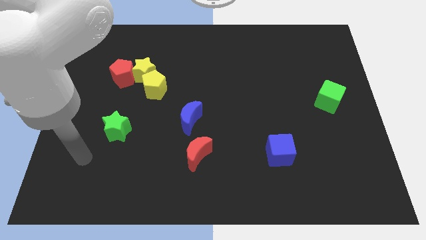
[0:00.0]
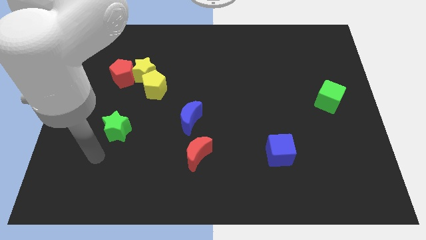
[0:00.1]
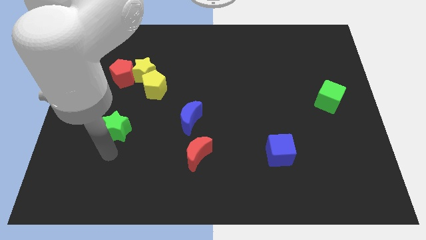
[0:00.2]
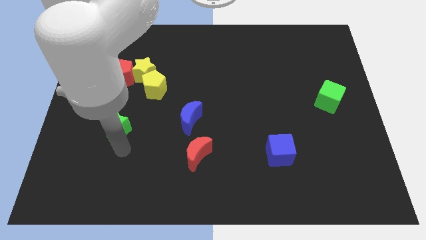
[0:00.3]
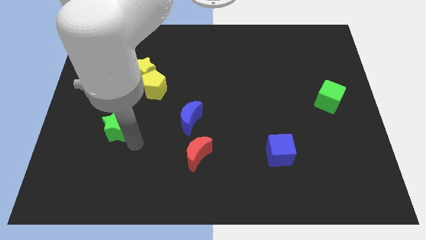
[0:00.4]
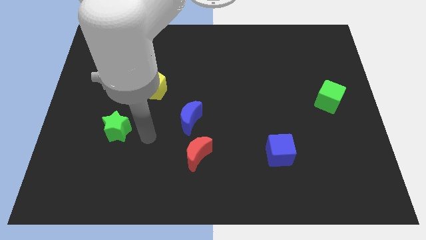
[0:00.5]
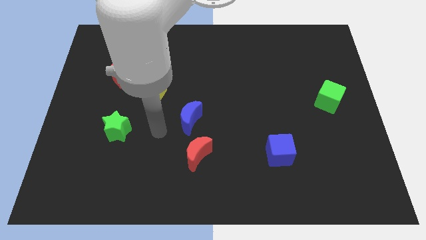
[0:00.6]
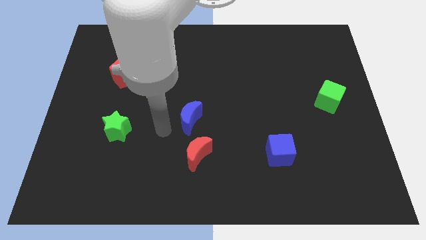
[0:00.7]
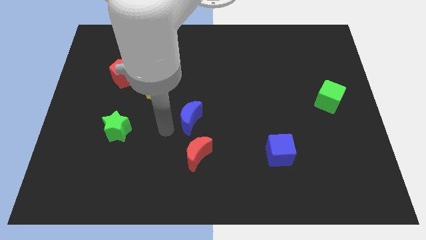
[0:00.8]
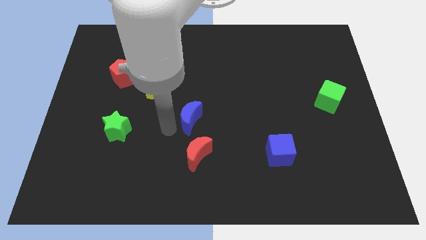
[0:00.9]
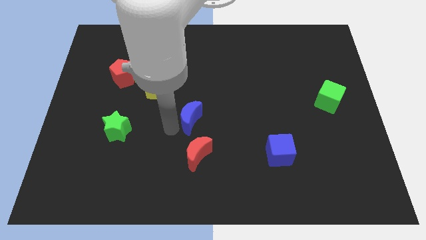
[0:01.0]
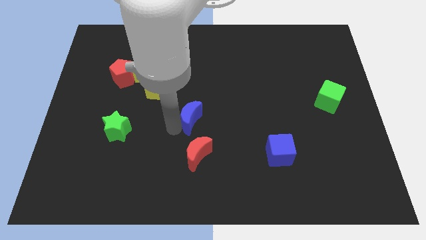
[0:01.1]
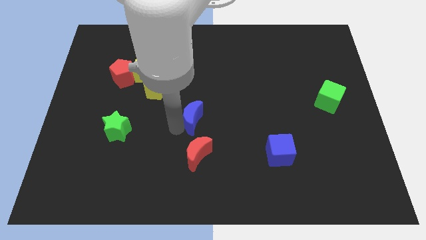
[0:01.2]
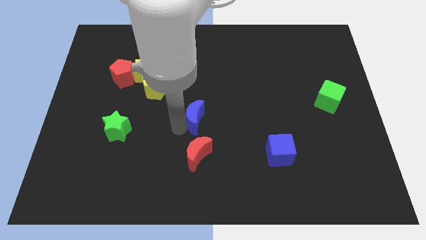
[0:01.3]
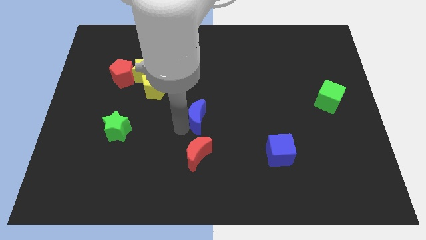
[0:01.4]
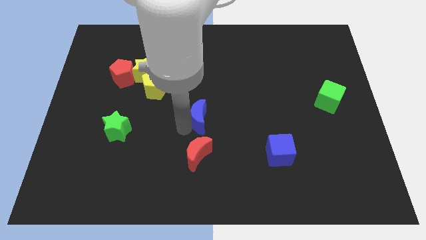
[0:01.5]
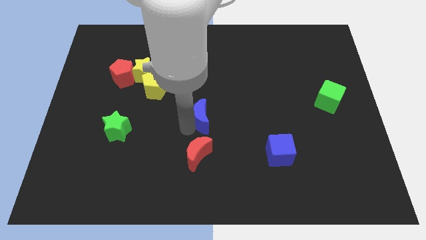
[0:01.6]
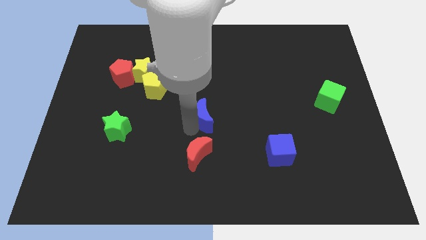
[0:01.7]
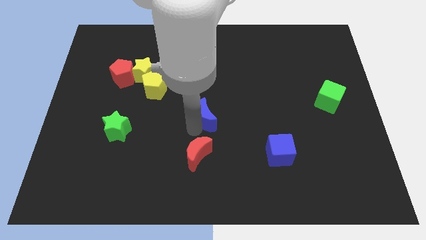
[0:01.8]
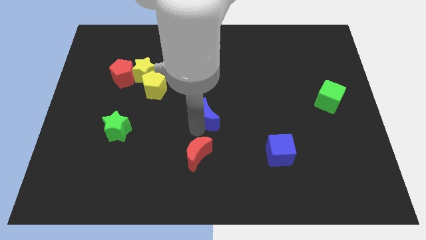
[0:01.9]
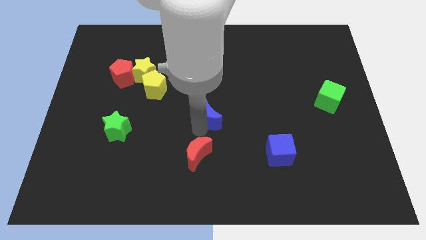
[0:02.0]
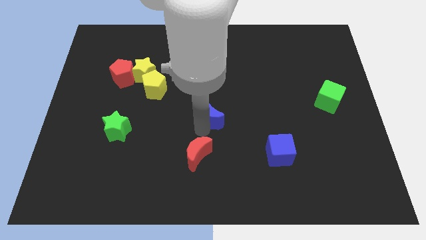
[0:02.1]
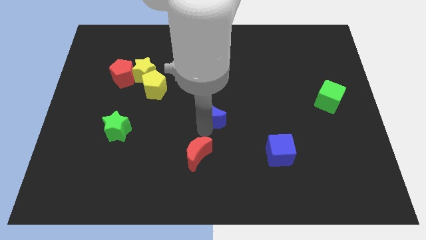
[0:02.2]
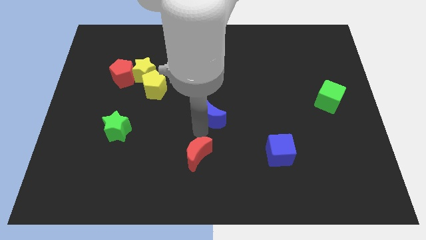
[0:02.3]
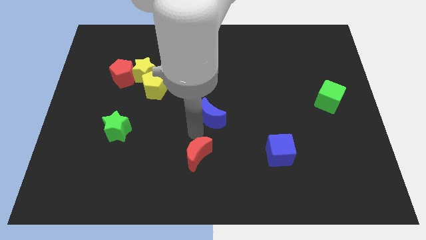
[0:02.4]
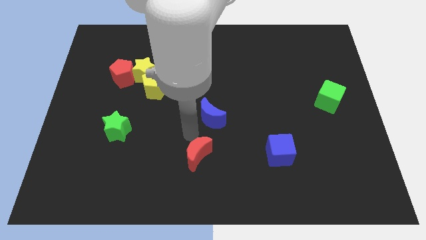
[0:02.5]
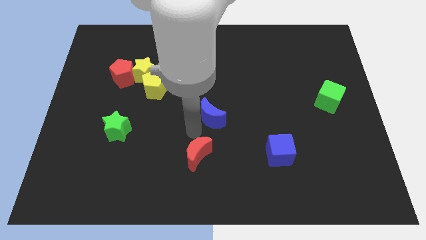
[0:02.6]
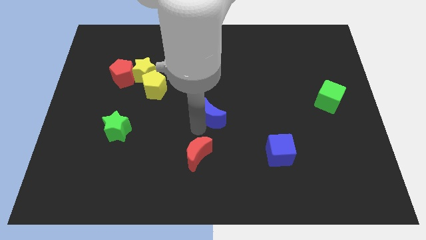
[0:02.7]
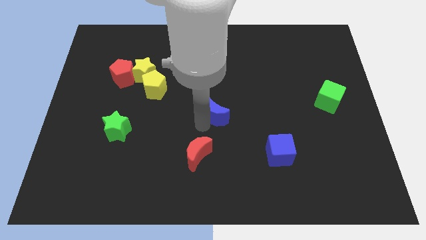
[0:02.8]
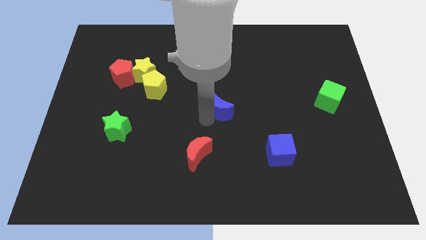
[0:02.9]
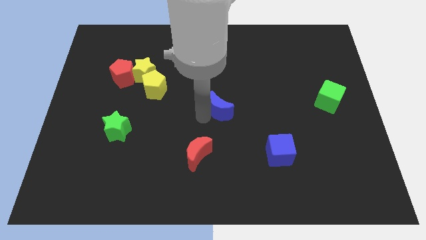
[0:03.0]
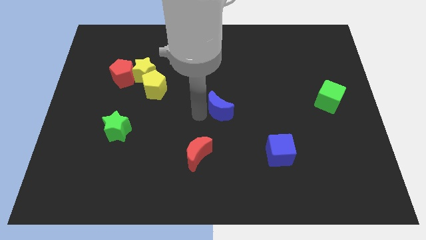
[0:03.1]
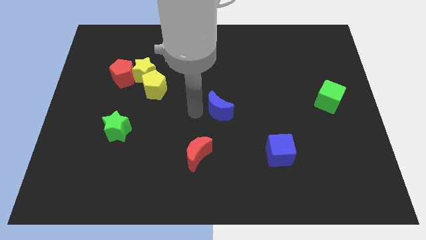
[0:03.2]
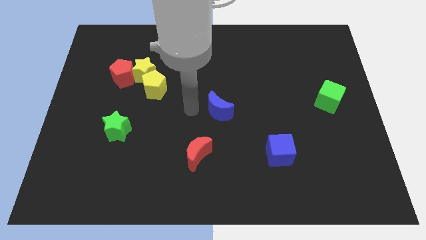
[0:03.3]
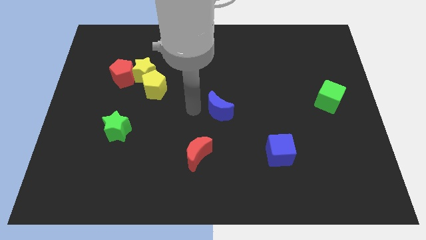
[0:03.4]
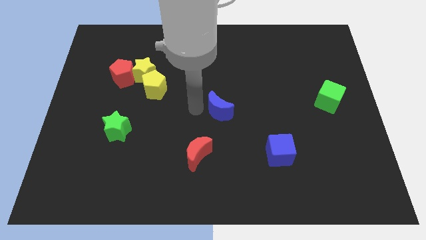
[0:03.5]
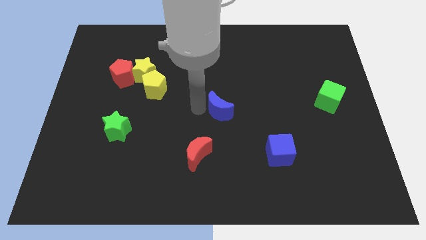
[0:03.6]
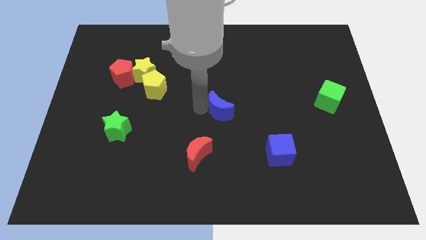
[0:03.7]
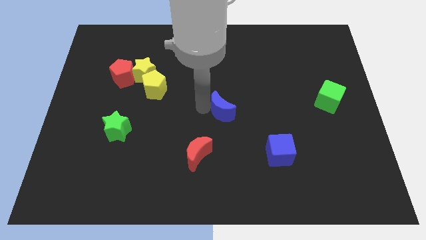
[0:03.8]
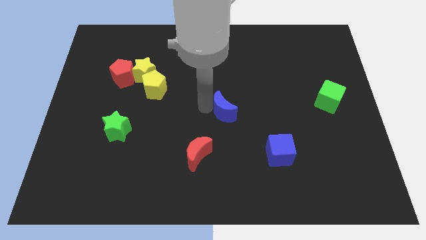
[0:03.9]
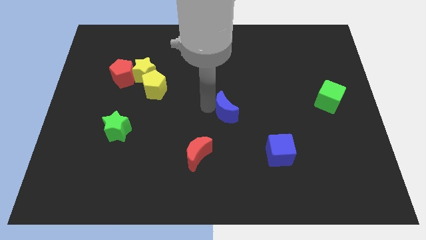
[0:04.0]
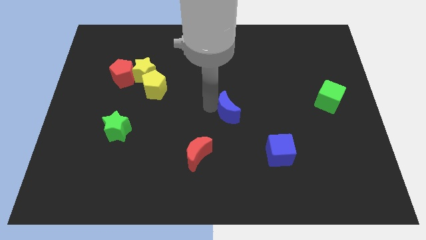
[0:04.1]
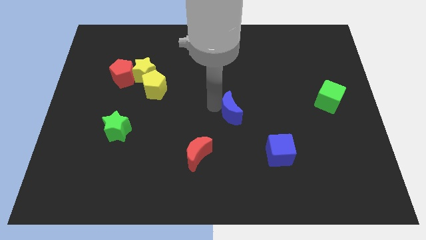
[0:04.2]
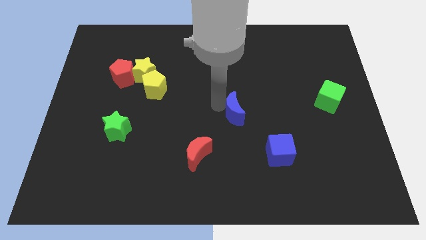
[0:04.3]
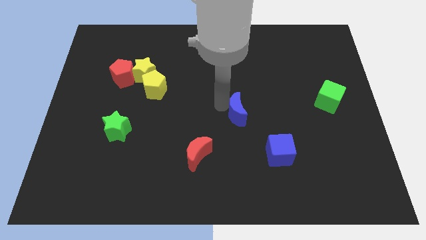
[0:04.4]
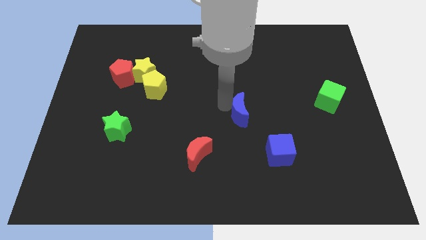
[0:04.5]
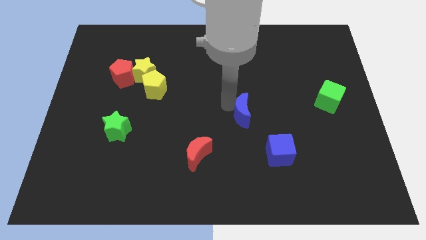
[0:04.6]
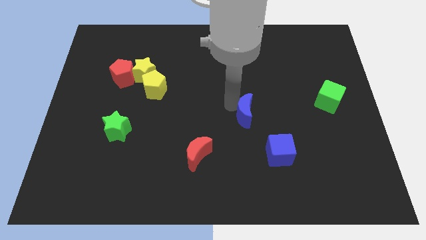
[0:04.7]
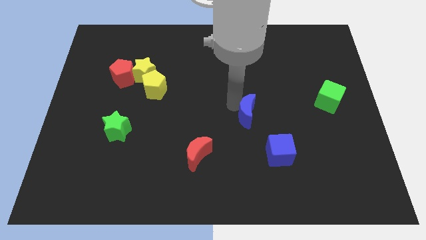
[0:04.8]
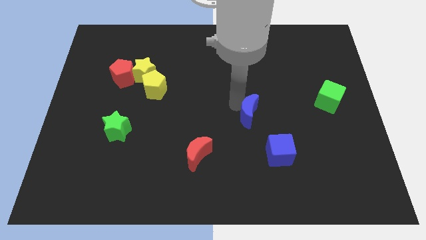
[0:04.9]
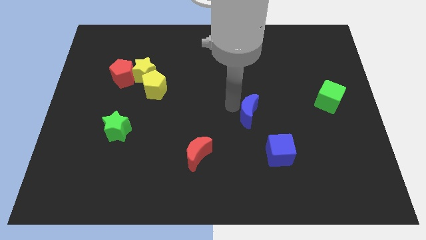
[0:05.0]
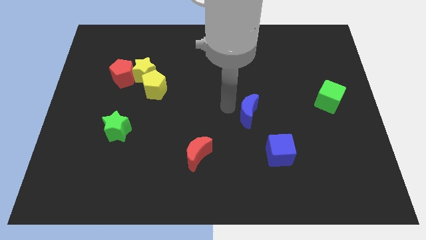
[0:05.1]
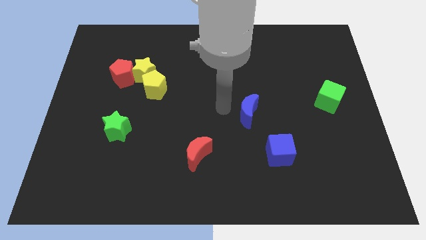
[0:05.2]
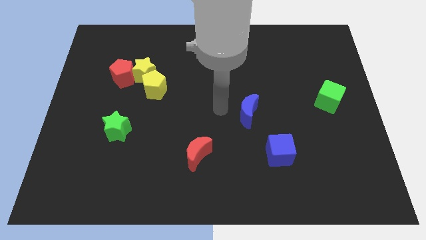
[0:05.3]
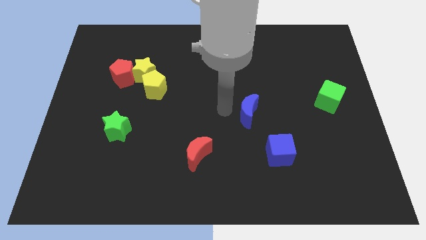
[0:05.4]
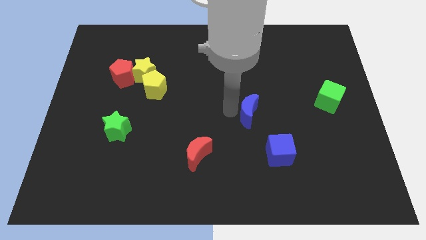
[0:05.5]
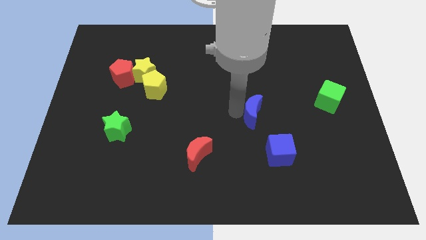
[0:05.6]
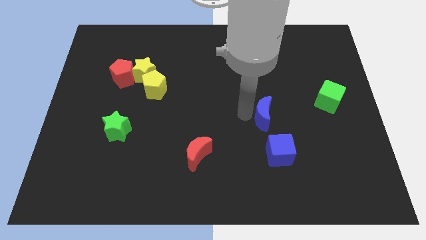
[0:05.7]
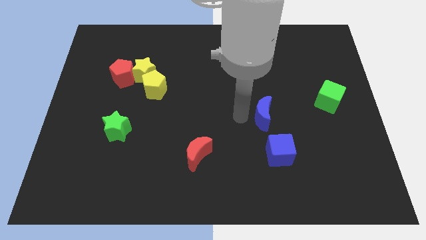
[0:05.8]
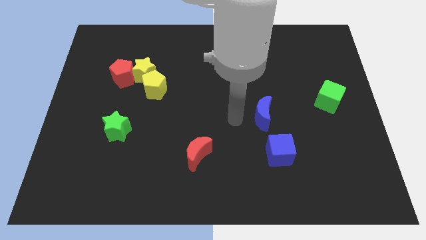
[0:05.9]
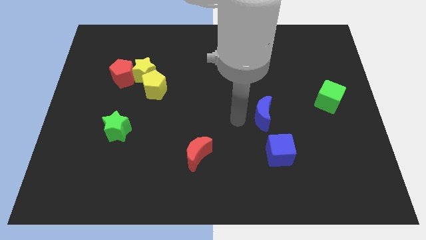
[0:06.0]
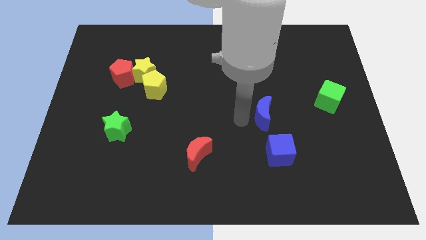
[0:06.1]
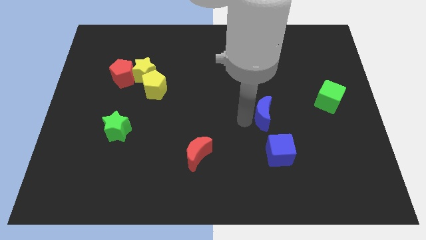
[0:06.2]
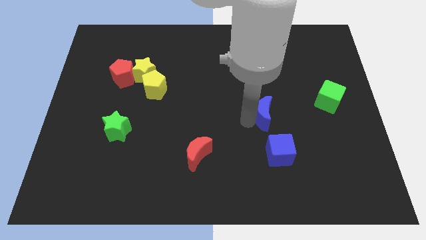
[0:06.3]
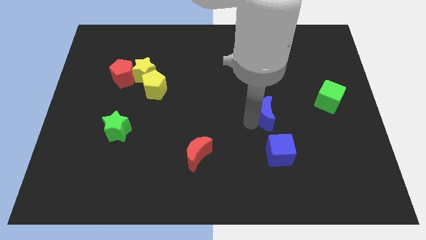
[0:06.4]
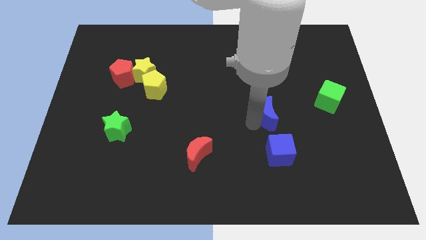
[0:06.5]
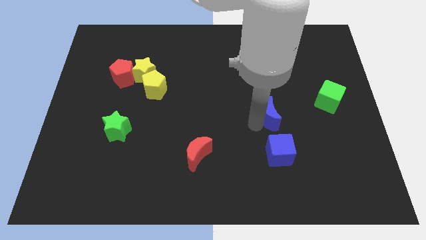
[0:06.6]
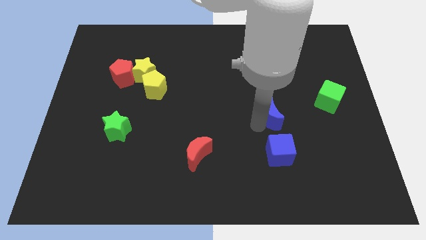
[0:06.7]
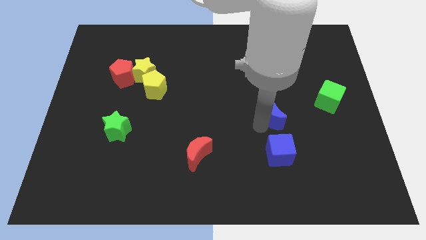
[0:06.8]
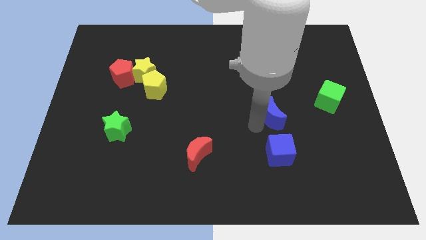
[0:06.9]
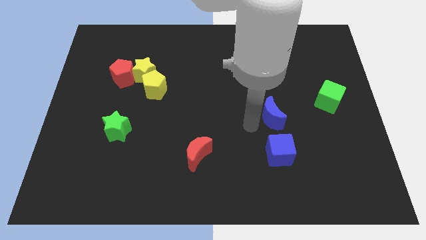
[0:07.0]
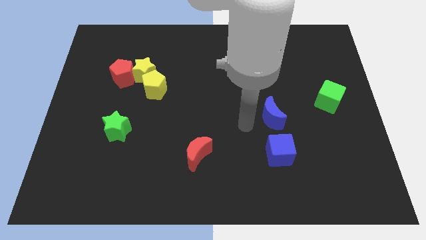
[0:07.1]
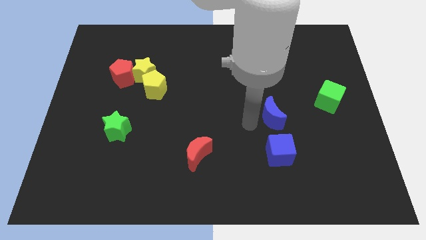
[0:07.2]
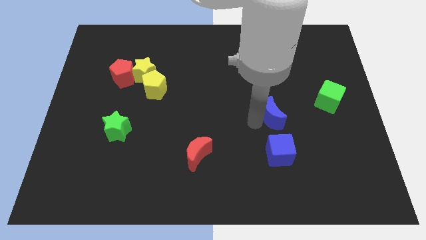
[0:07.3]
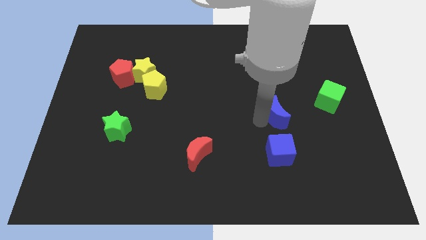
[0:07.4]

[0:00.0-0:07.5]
push the blue moon right

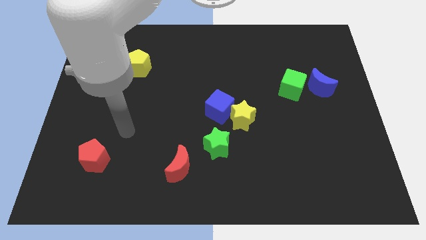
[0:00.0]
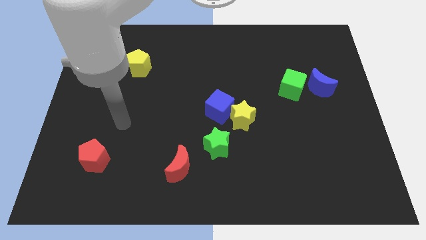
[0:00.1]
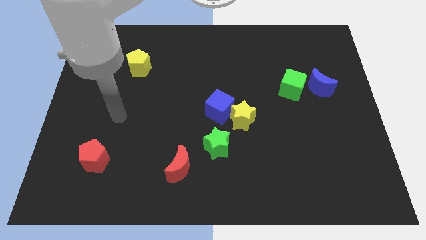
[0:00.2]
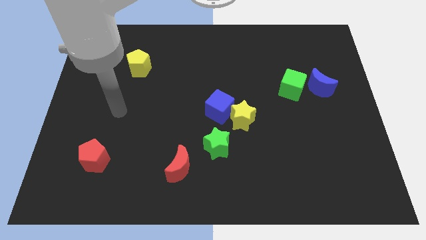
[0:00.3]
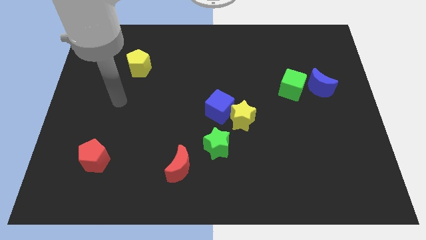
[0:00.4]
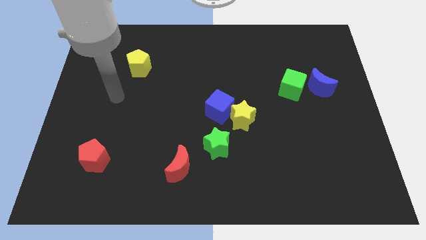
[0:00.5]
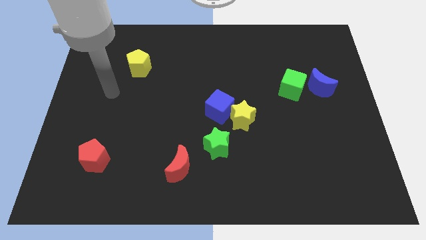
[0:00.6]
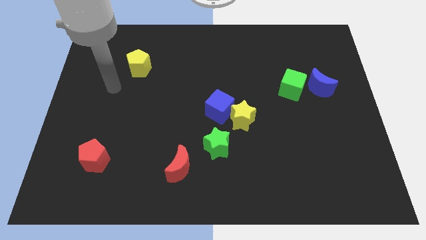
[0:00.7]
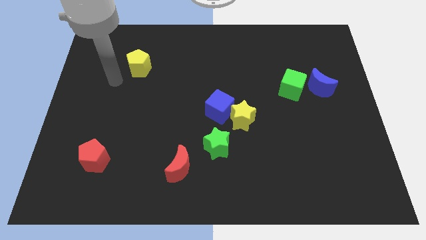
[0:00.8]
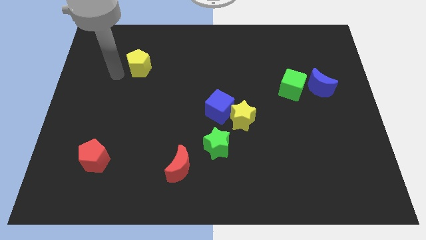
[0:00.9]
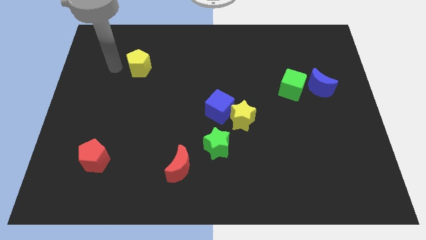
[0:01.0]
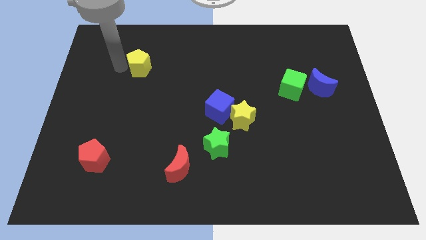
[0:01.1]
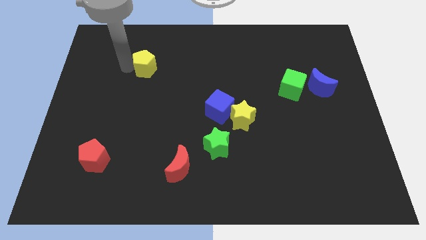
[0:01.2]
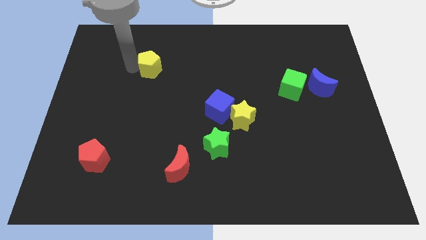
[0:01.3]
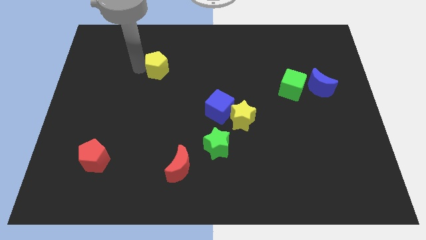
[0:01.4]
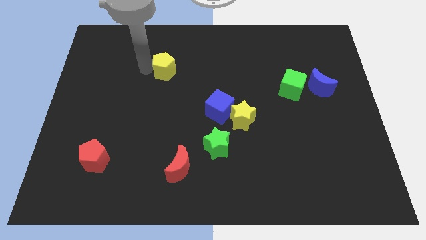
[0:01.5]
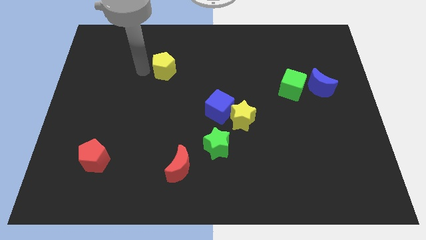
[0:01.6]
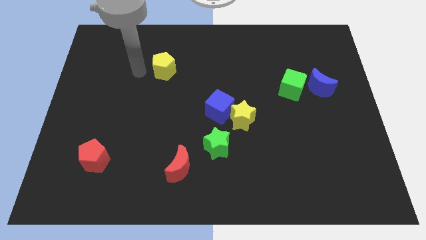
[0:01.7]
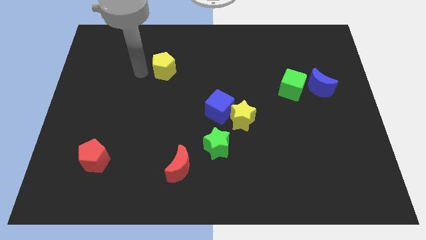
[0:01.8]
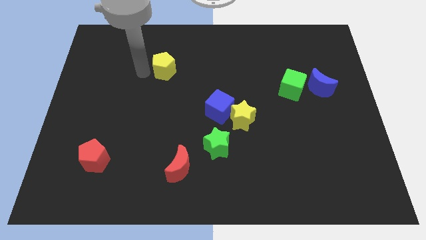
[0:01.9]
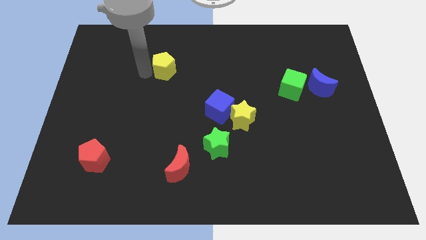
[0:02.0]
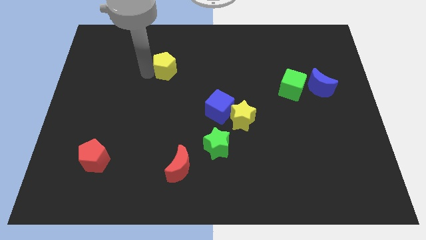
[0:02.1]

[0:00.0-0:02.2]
push the yellow pentagon a little right
